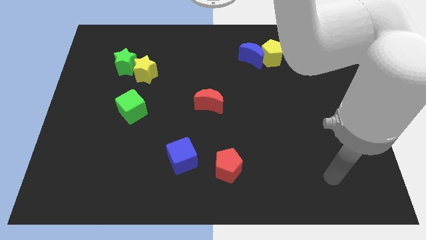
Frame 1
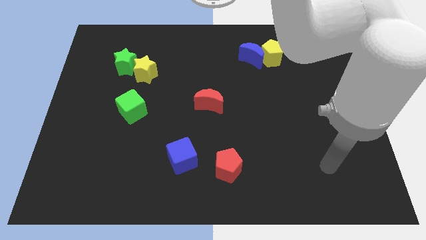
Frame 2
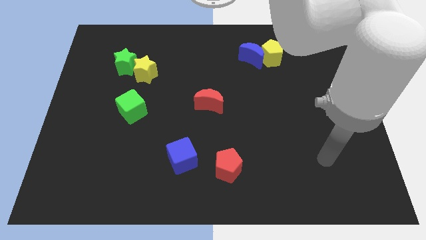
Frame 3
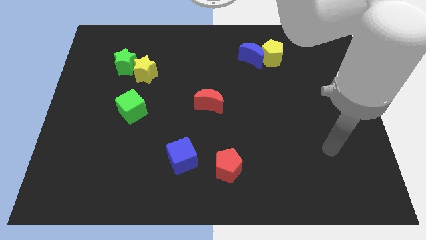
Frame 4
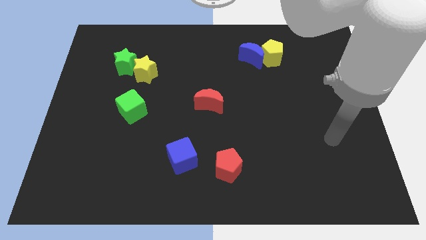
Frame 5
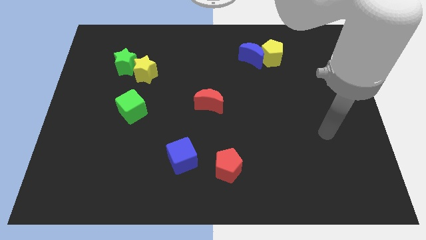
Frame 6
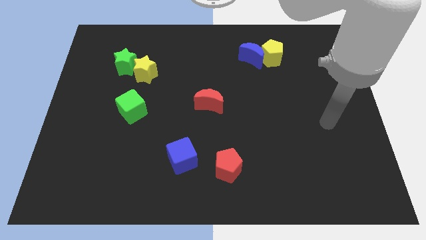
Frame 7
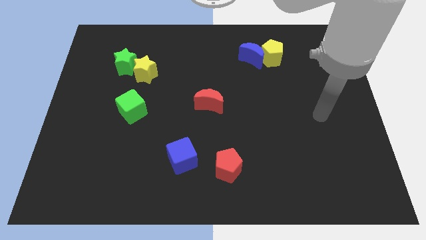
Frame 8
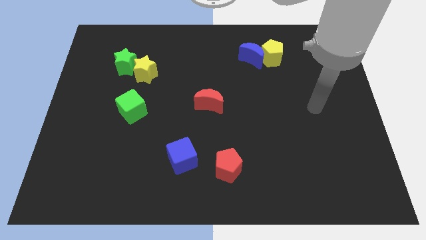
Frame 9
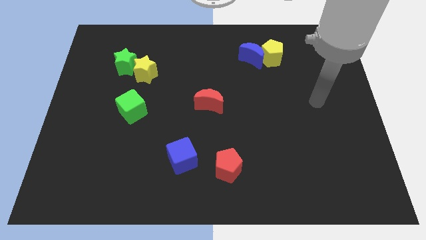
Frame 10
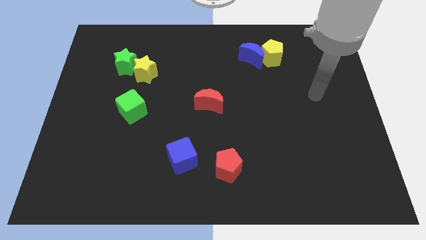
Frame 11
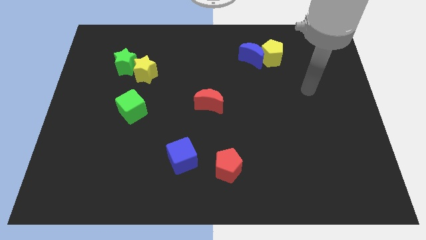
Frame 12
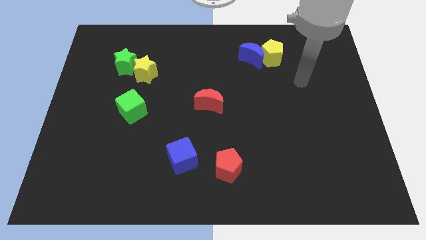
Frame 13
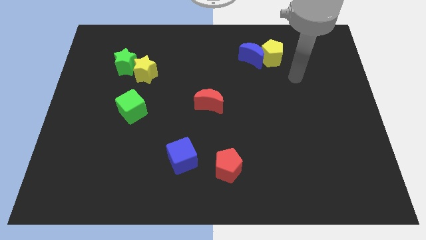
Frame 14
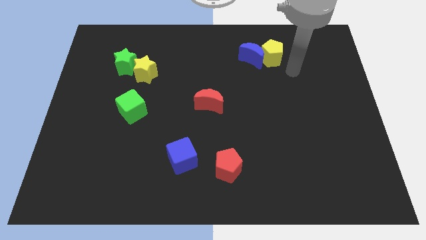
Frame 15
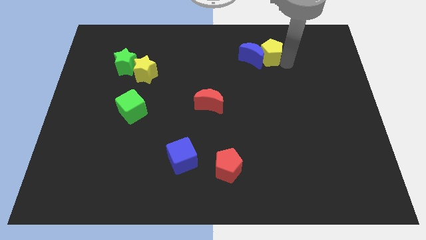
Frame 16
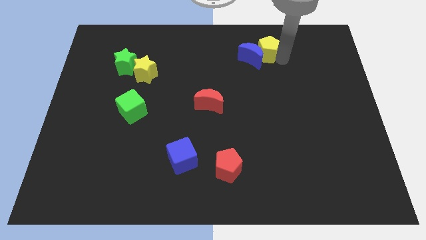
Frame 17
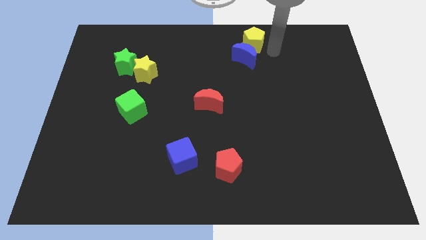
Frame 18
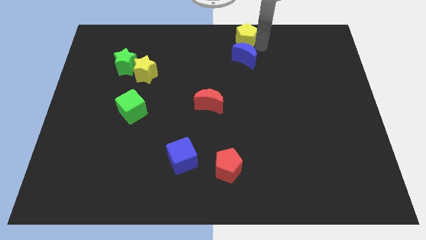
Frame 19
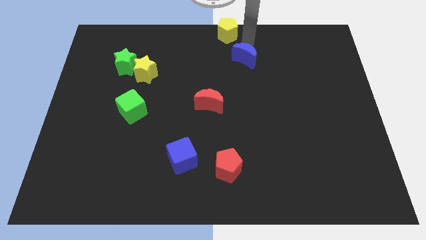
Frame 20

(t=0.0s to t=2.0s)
separate the blue moon from the yellow pentagon

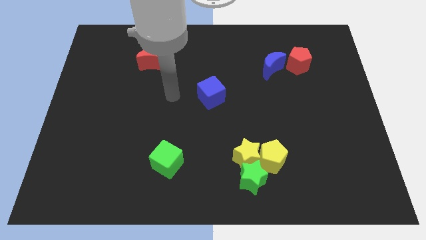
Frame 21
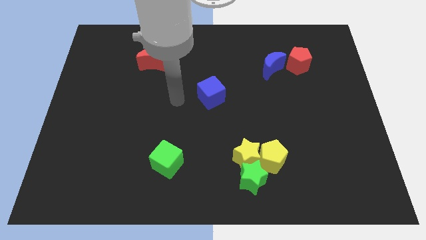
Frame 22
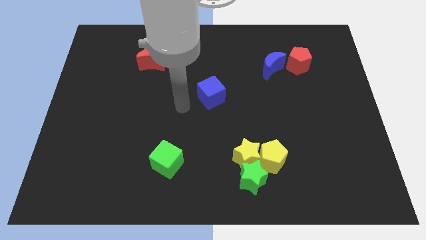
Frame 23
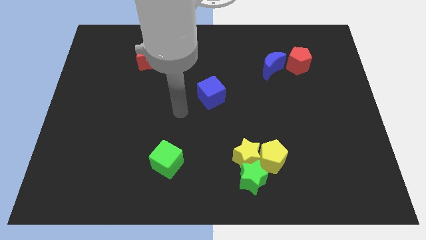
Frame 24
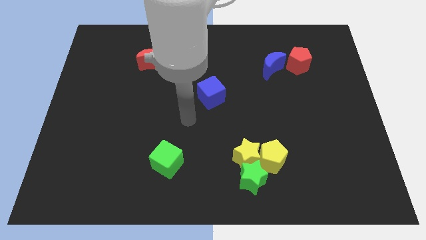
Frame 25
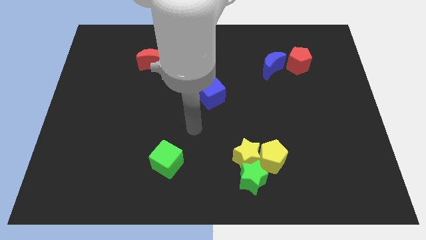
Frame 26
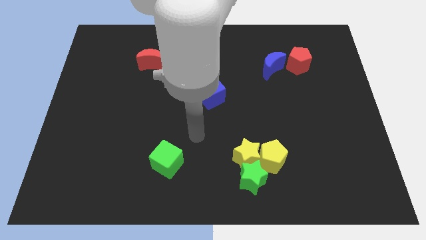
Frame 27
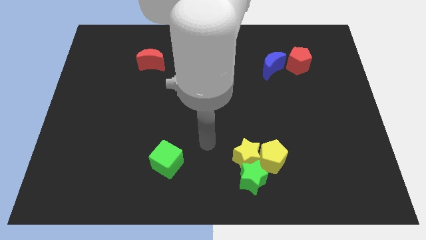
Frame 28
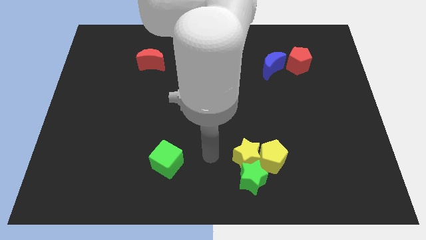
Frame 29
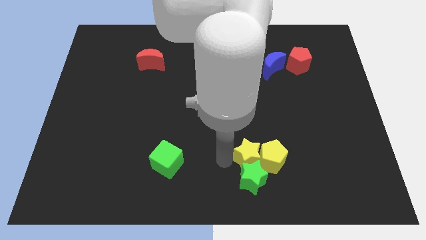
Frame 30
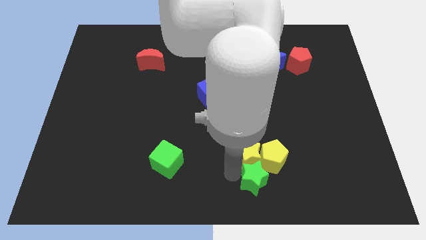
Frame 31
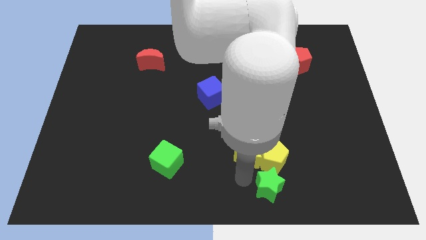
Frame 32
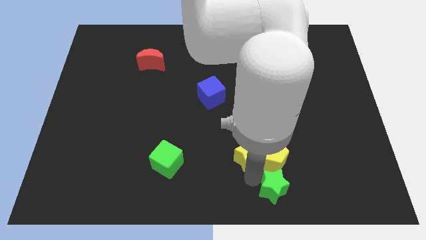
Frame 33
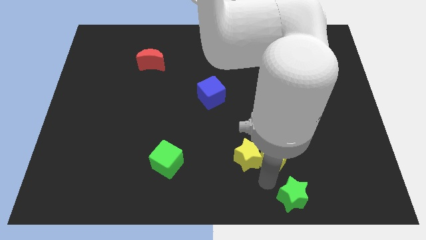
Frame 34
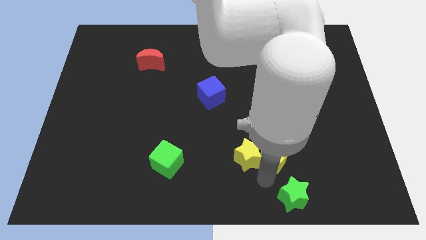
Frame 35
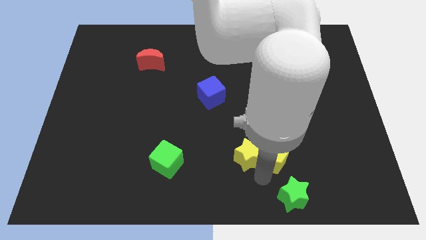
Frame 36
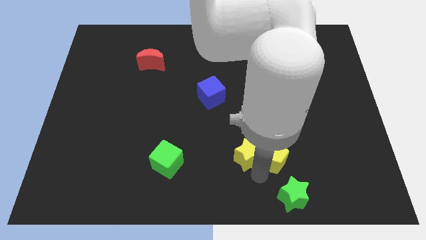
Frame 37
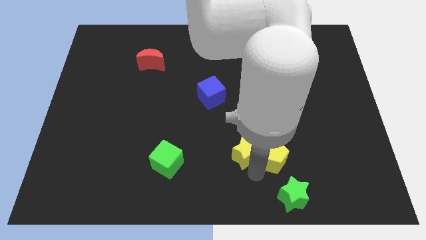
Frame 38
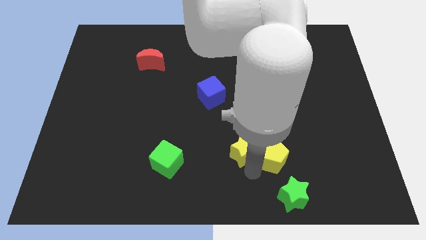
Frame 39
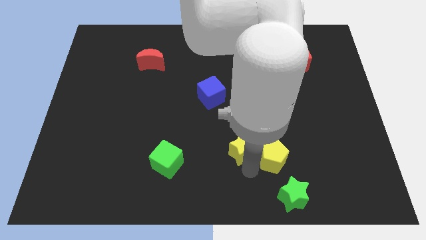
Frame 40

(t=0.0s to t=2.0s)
separate the yellow star from the green star and yellow pentagon

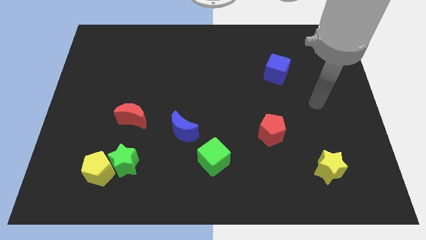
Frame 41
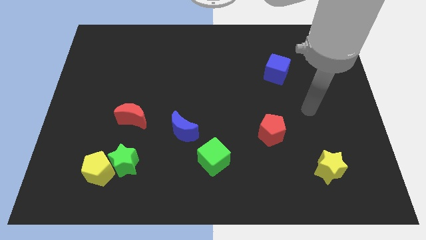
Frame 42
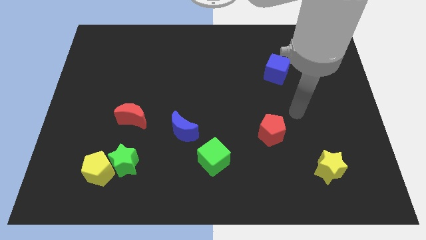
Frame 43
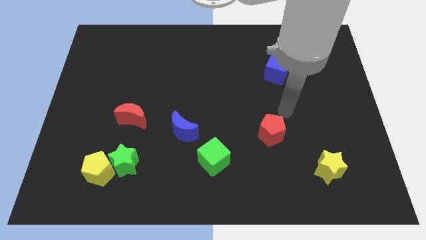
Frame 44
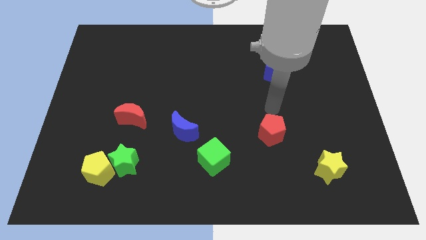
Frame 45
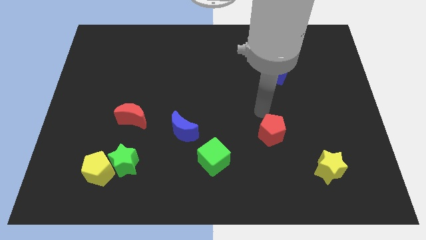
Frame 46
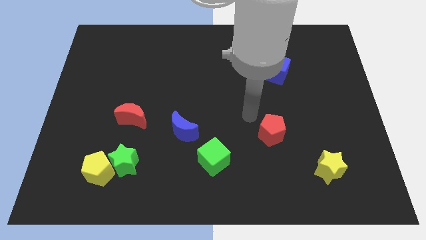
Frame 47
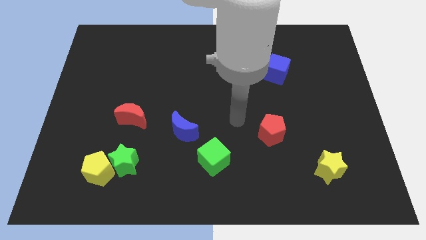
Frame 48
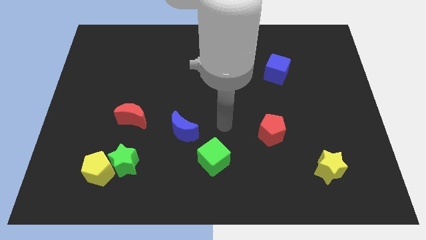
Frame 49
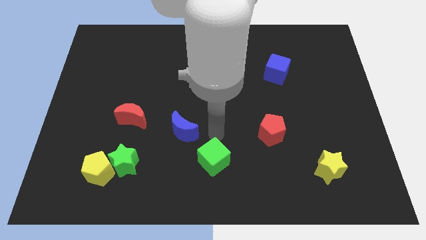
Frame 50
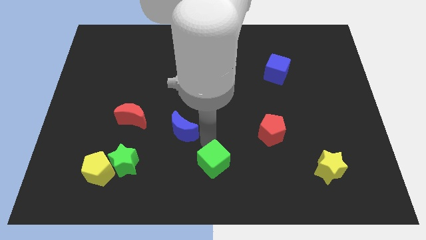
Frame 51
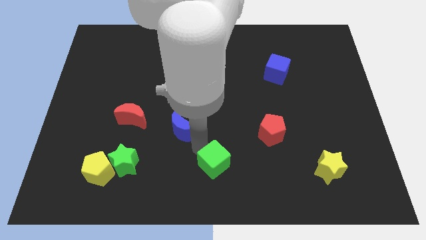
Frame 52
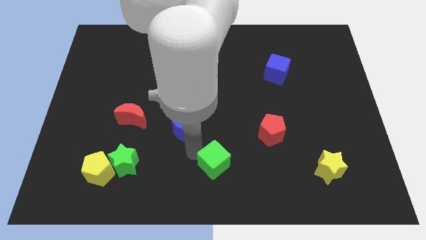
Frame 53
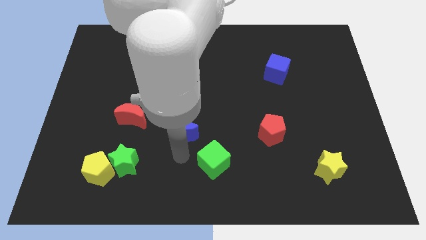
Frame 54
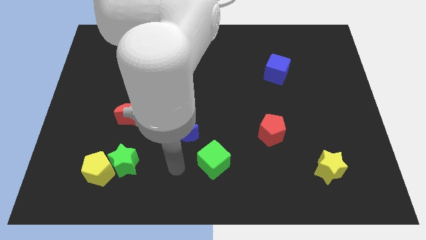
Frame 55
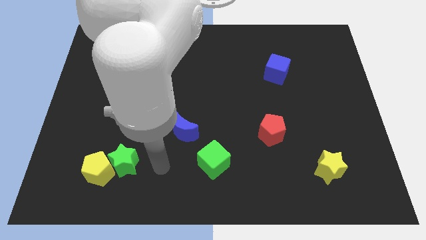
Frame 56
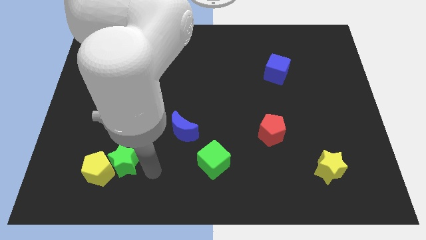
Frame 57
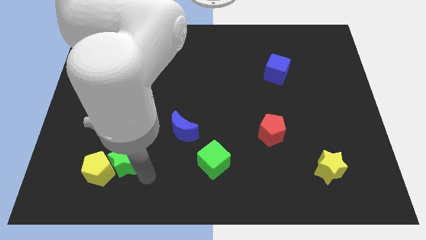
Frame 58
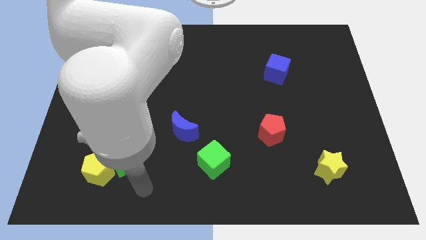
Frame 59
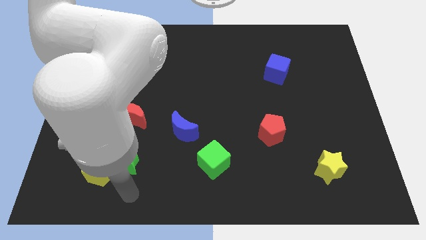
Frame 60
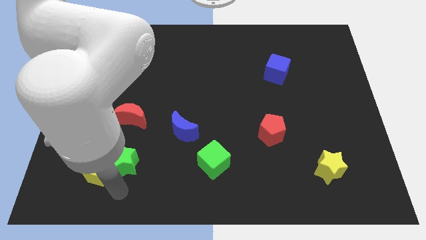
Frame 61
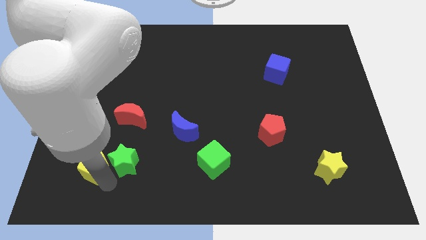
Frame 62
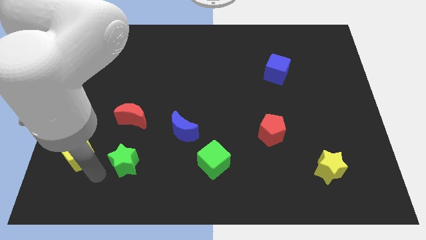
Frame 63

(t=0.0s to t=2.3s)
separate the green star from the yellow pentagon

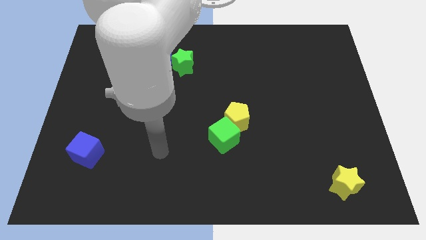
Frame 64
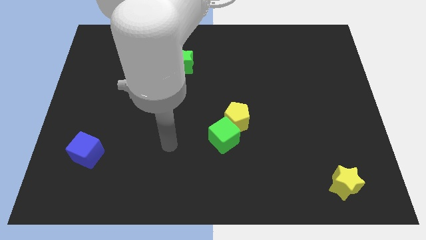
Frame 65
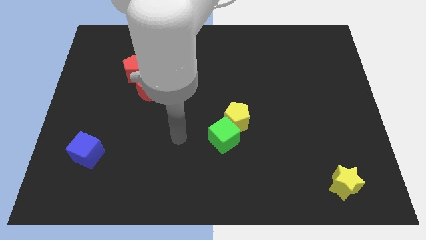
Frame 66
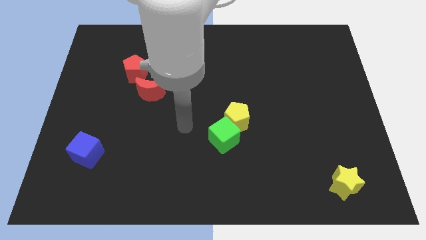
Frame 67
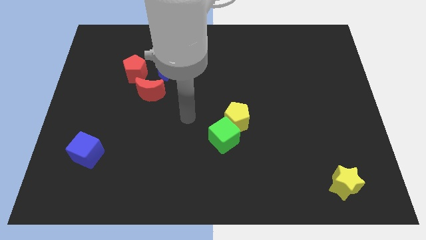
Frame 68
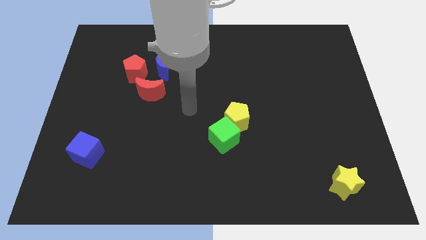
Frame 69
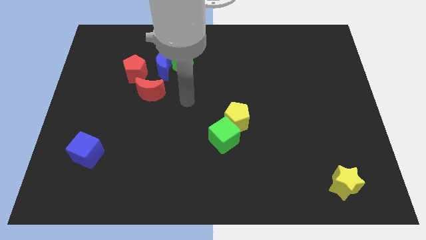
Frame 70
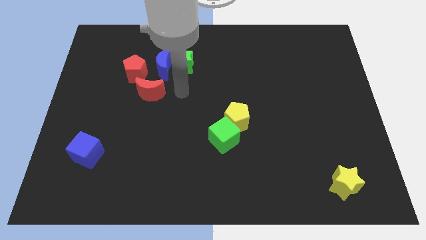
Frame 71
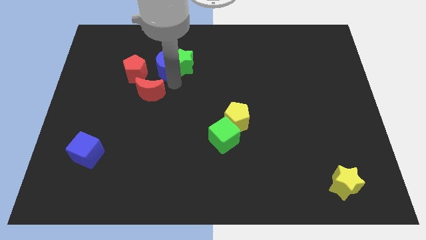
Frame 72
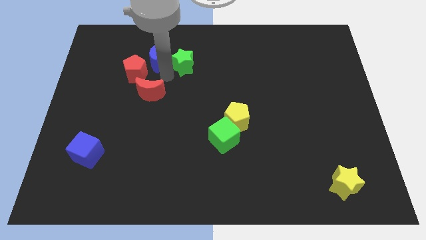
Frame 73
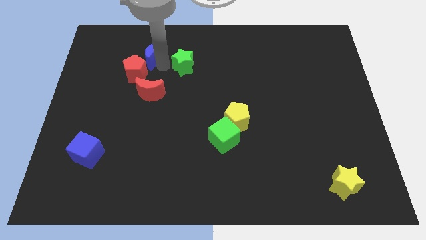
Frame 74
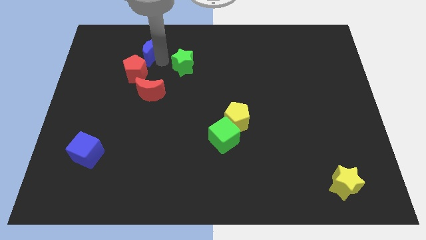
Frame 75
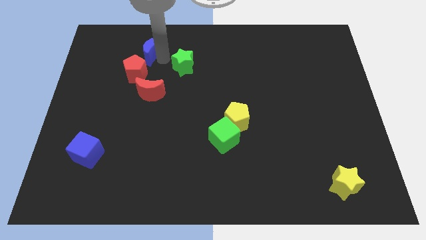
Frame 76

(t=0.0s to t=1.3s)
pull the green star apart from the blue moon

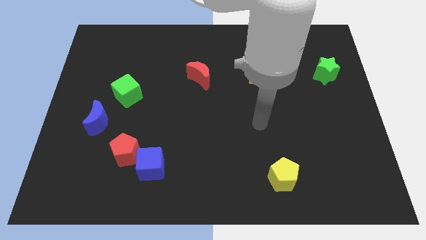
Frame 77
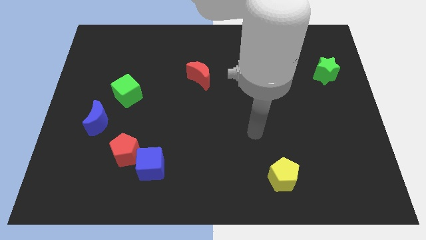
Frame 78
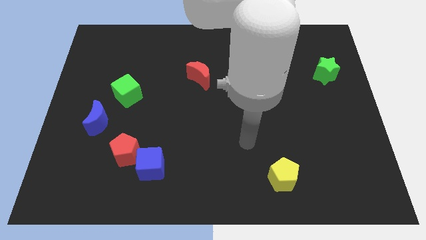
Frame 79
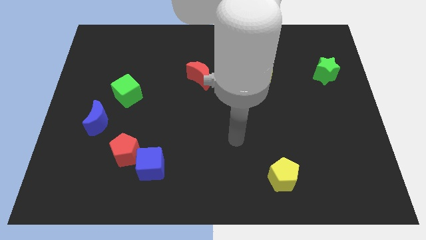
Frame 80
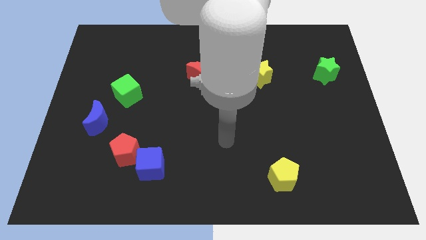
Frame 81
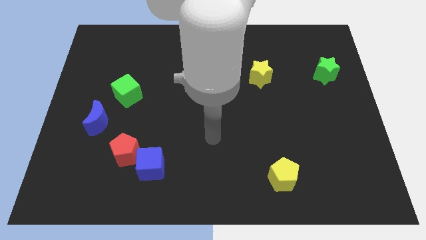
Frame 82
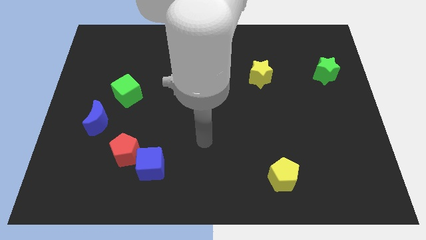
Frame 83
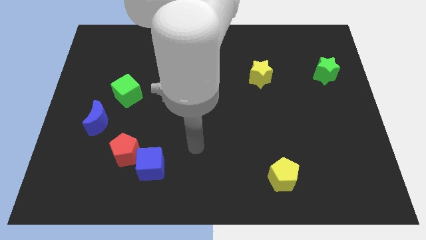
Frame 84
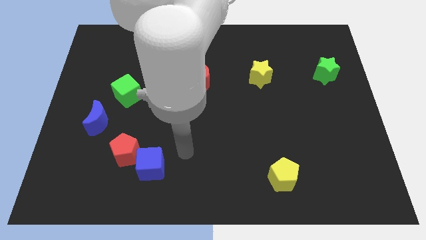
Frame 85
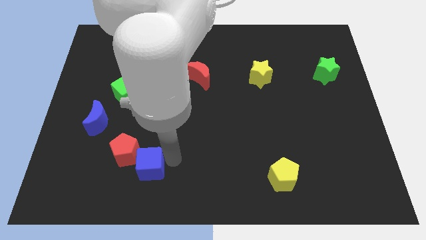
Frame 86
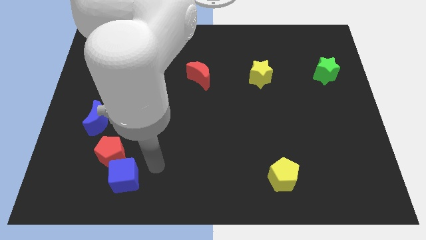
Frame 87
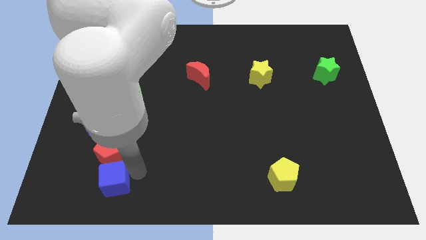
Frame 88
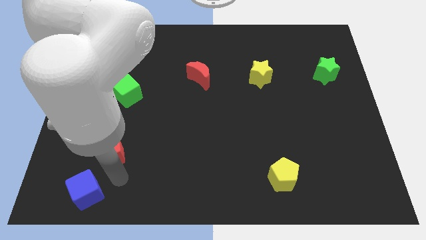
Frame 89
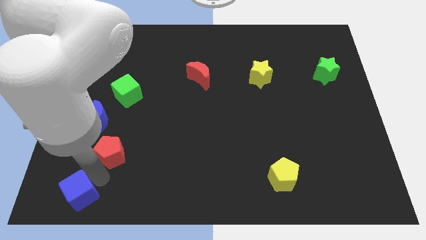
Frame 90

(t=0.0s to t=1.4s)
separate the red pentagon from the blue cube

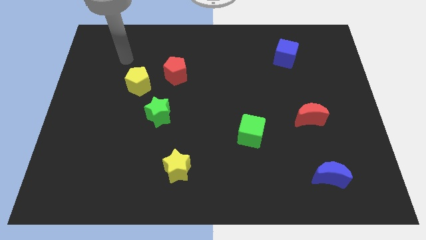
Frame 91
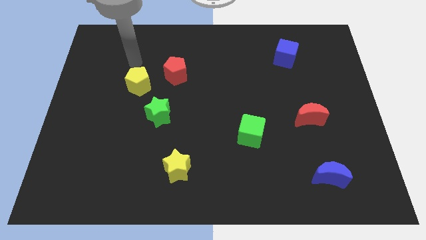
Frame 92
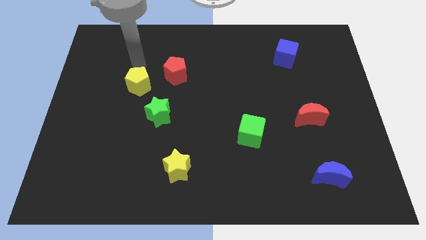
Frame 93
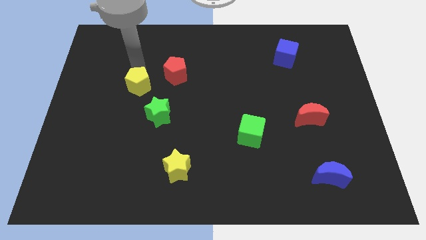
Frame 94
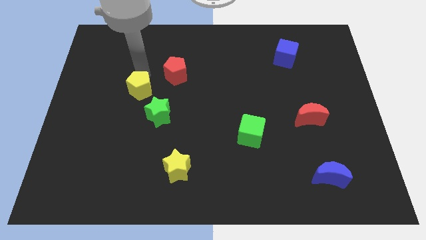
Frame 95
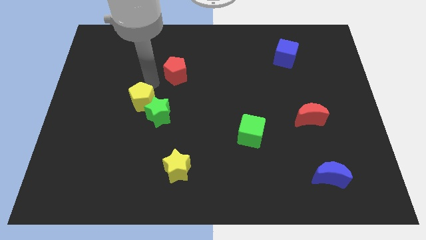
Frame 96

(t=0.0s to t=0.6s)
move the red pentagon away from the yellow pentagon
